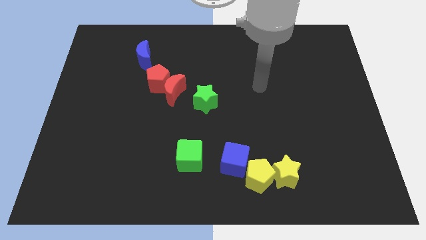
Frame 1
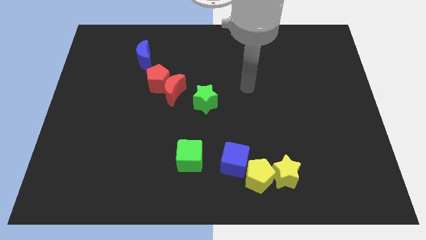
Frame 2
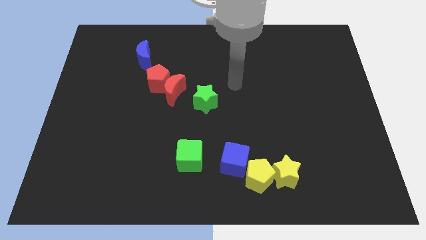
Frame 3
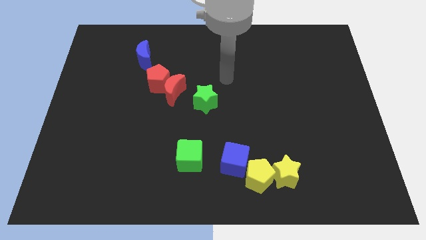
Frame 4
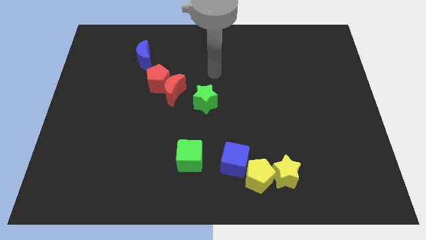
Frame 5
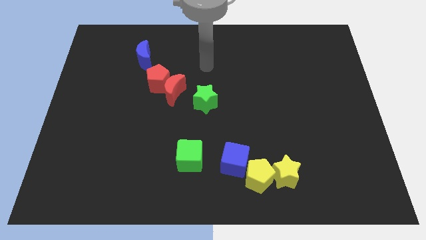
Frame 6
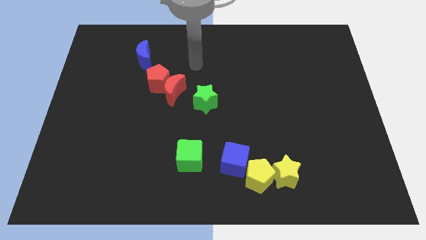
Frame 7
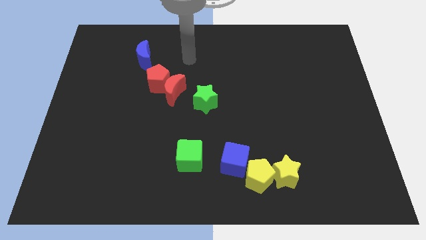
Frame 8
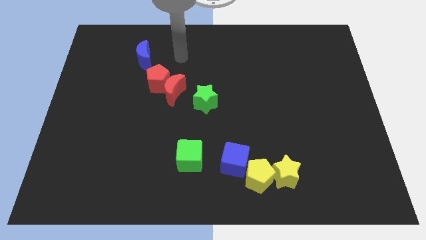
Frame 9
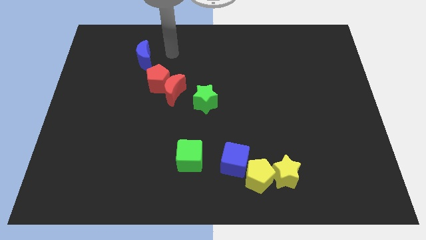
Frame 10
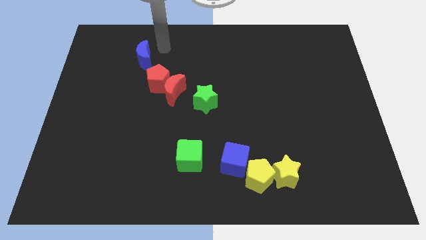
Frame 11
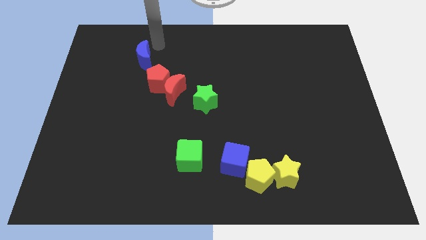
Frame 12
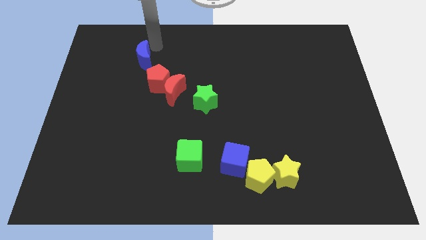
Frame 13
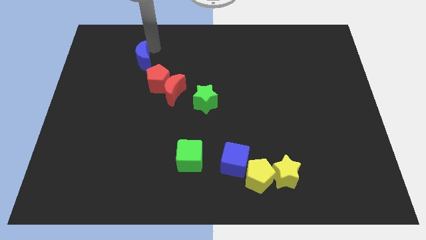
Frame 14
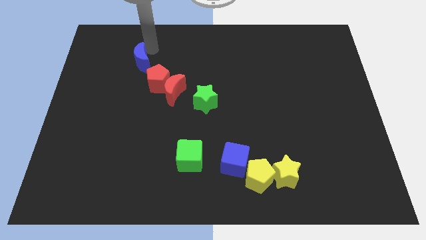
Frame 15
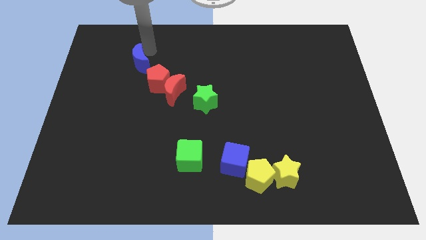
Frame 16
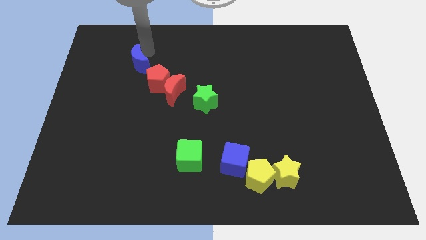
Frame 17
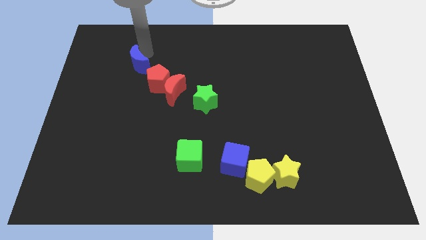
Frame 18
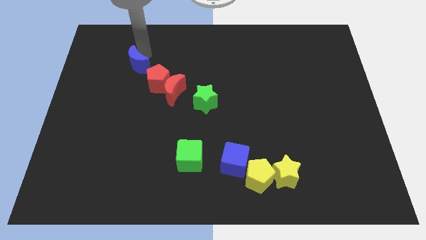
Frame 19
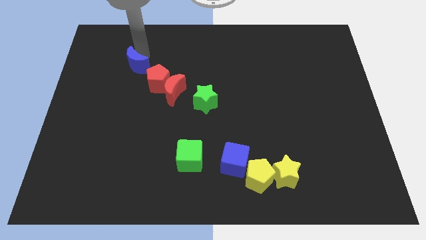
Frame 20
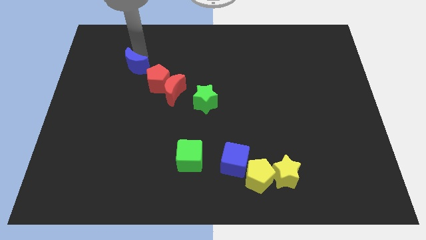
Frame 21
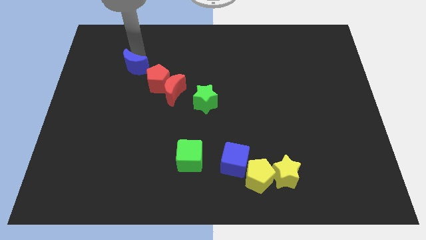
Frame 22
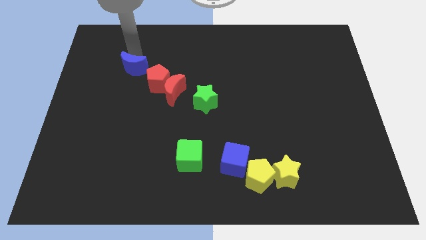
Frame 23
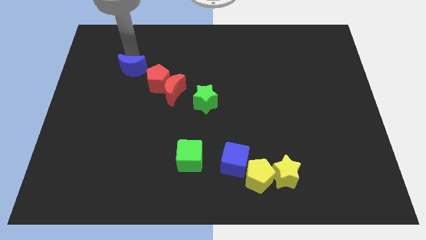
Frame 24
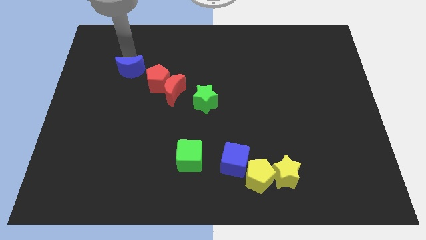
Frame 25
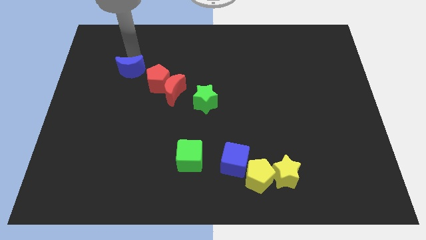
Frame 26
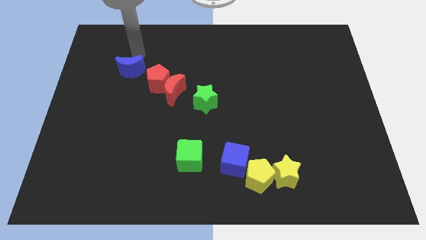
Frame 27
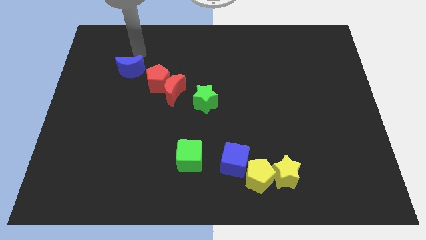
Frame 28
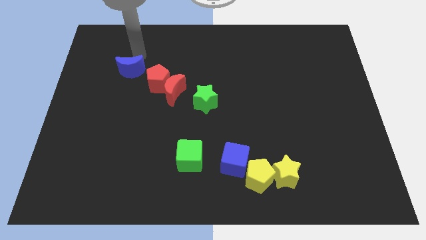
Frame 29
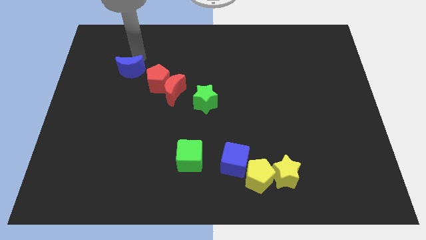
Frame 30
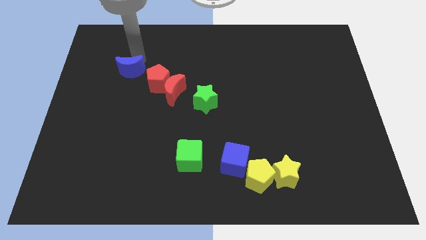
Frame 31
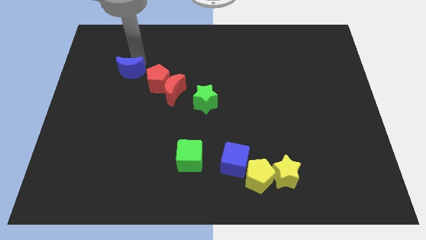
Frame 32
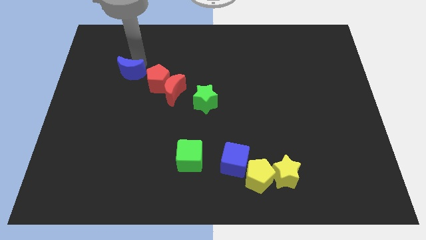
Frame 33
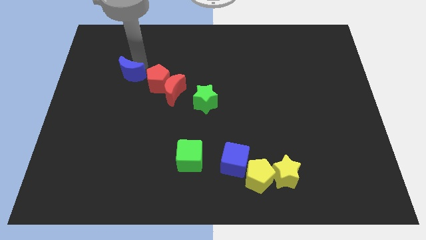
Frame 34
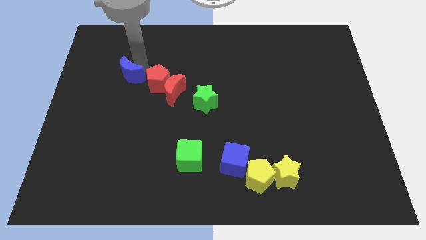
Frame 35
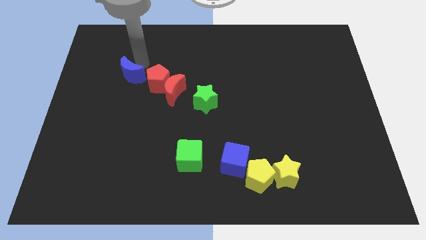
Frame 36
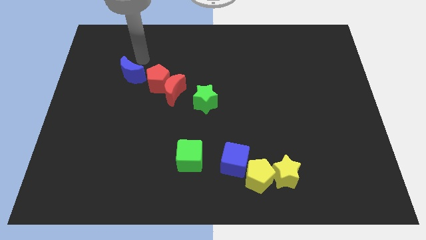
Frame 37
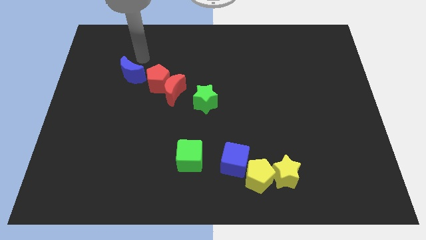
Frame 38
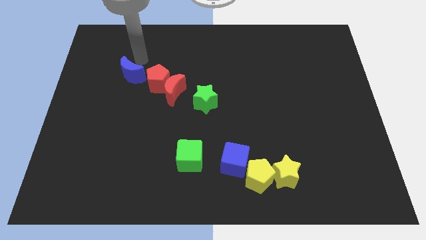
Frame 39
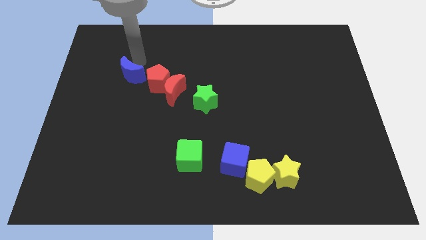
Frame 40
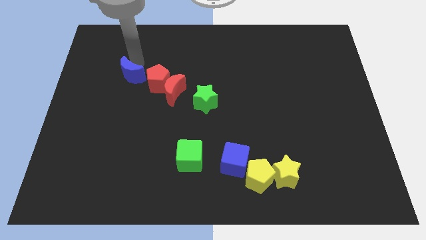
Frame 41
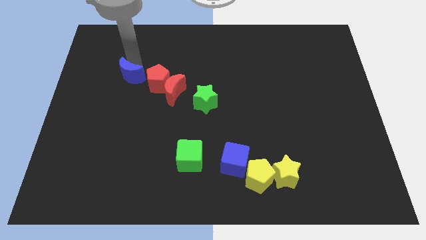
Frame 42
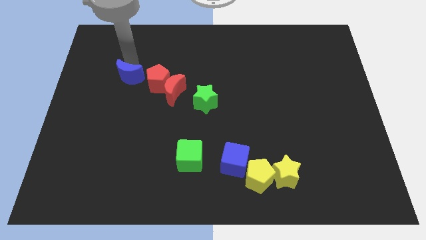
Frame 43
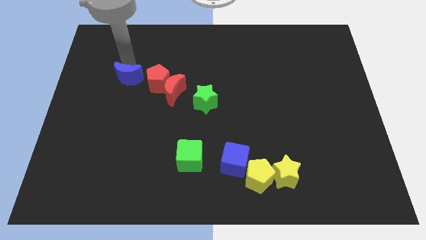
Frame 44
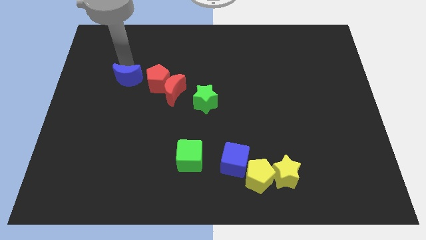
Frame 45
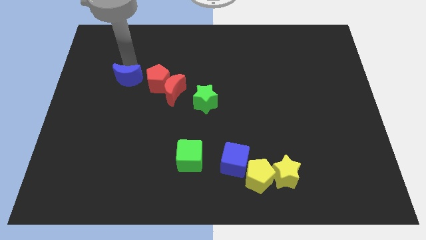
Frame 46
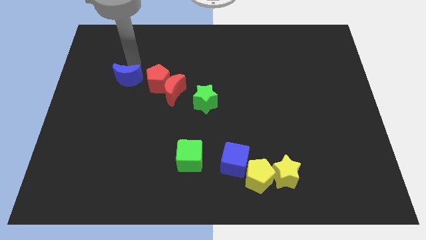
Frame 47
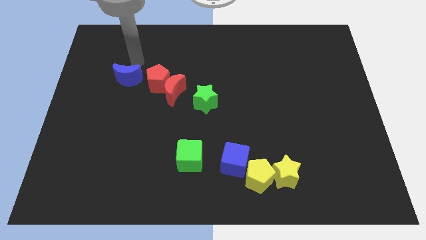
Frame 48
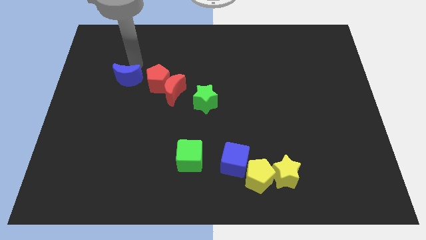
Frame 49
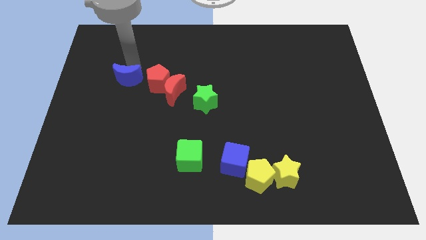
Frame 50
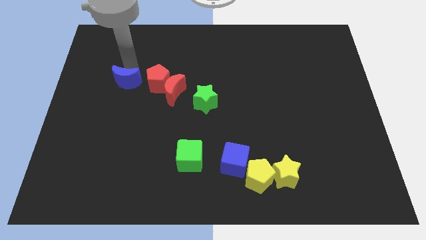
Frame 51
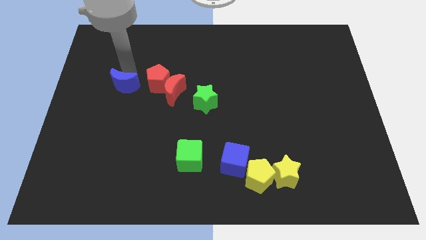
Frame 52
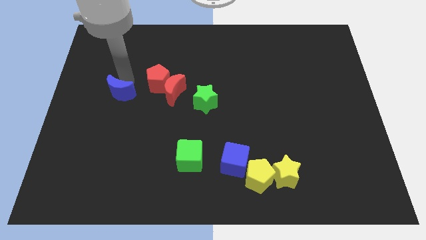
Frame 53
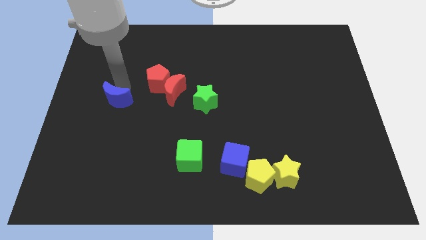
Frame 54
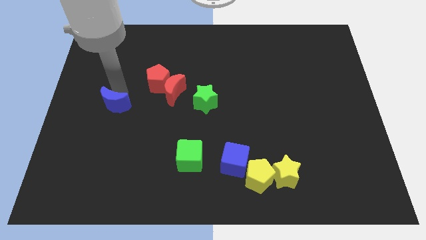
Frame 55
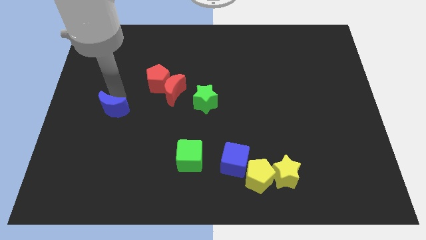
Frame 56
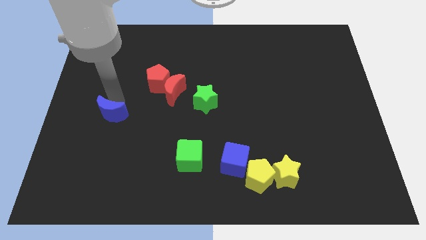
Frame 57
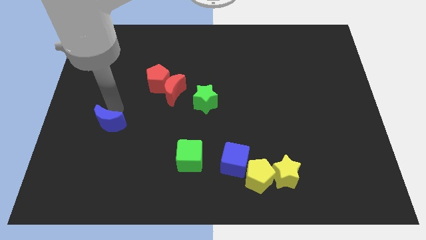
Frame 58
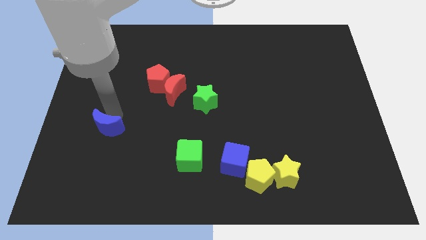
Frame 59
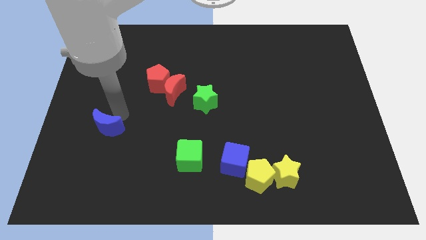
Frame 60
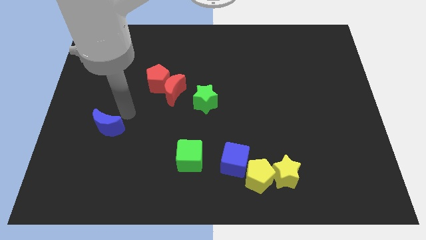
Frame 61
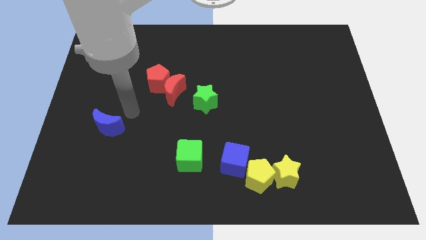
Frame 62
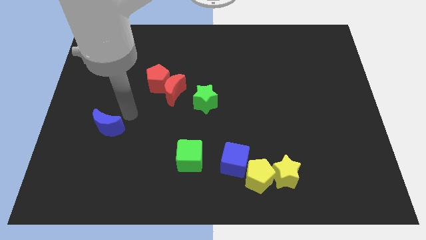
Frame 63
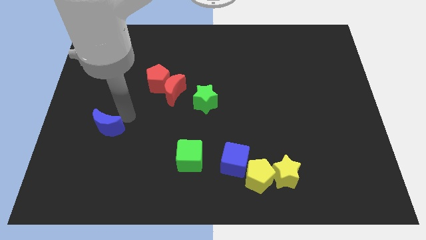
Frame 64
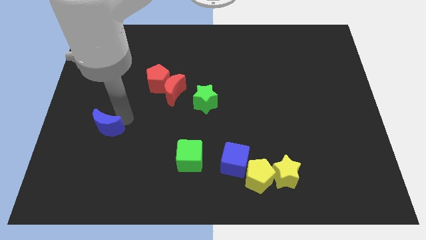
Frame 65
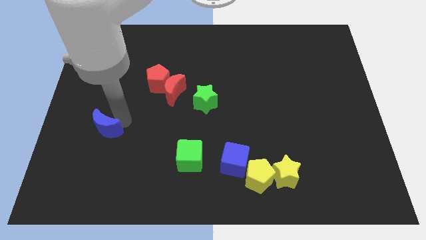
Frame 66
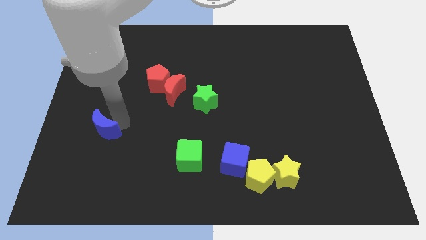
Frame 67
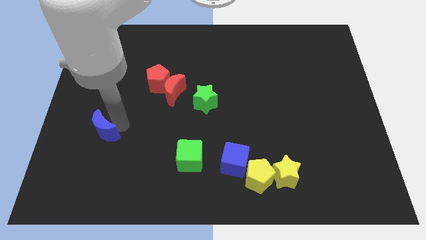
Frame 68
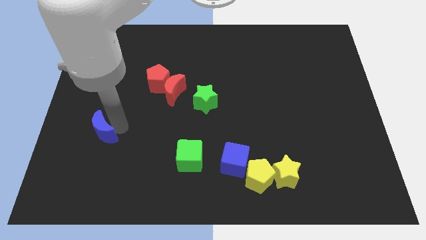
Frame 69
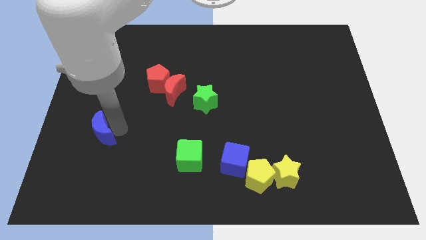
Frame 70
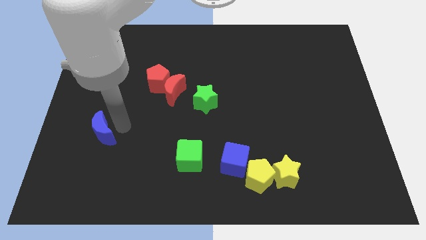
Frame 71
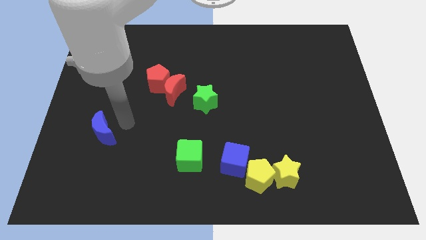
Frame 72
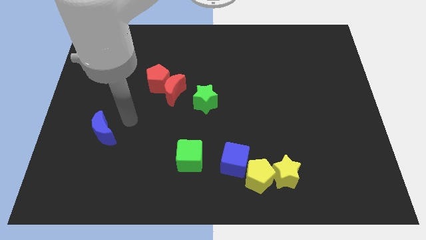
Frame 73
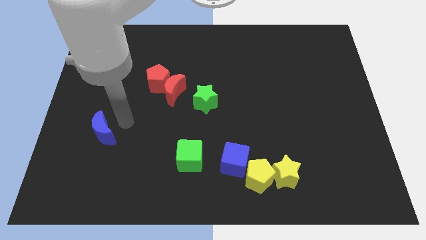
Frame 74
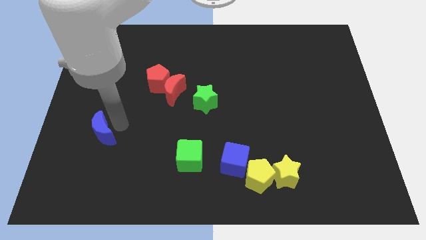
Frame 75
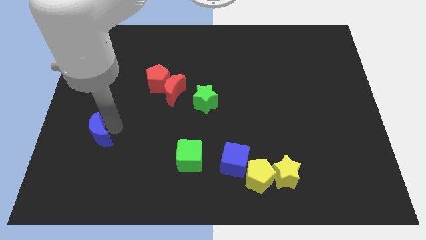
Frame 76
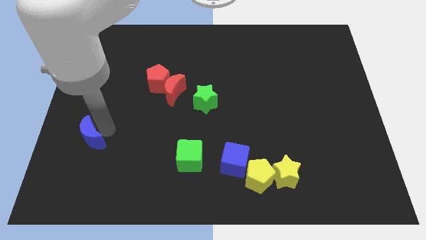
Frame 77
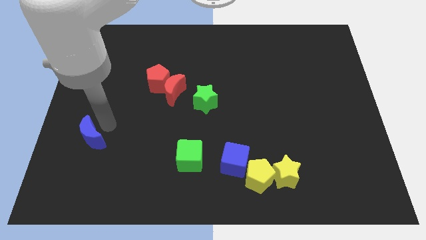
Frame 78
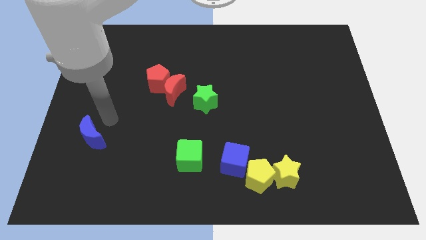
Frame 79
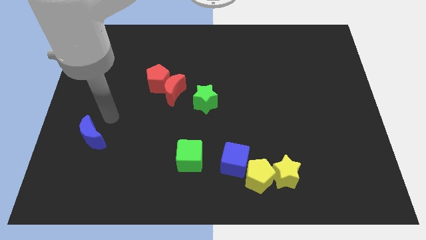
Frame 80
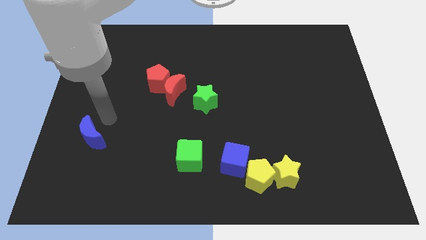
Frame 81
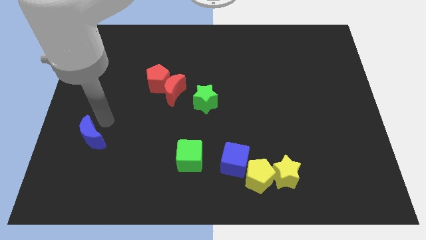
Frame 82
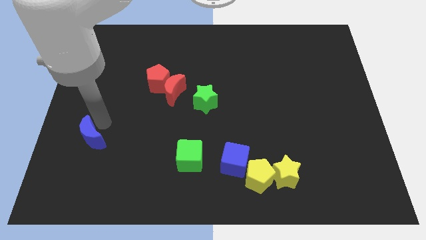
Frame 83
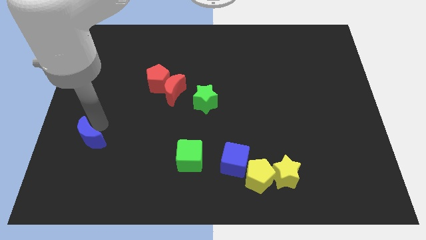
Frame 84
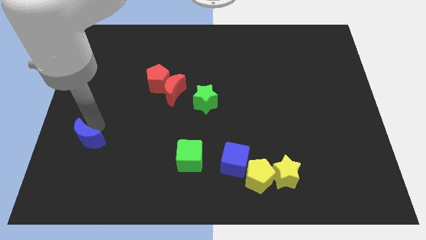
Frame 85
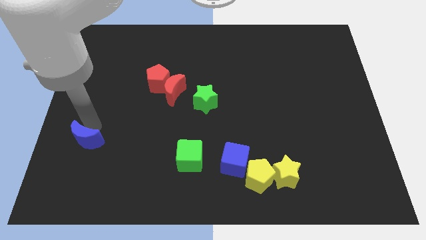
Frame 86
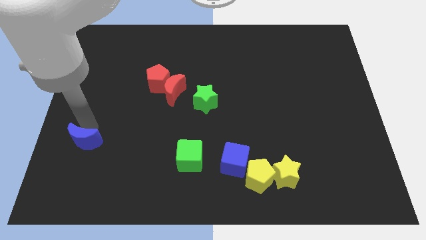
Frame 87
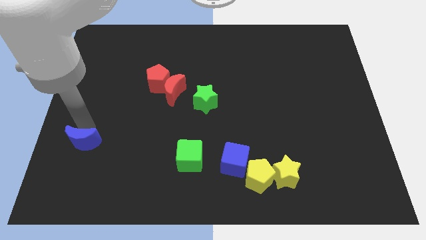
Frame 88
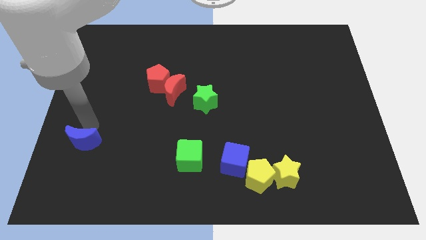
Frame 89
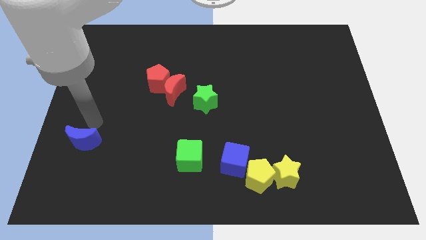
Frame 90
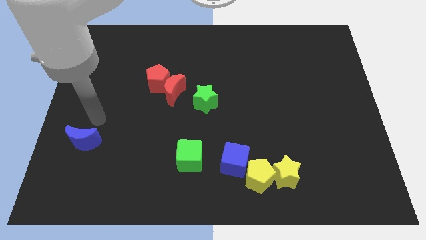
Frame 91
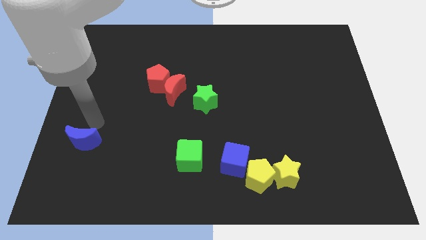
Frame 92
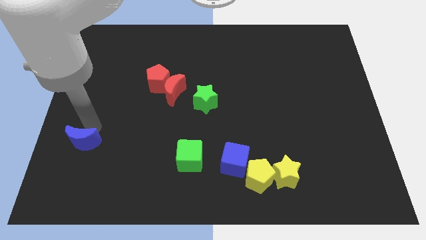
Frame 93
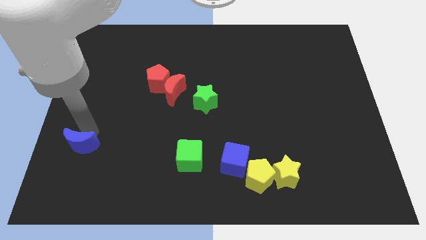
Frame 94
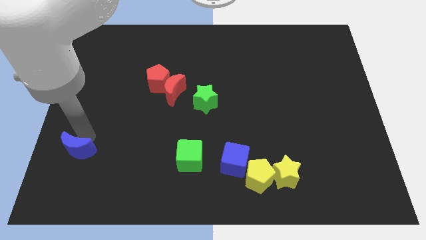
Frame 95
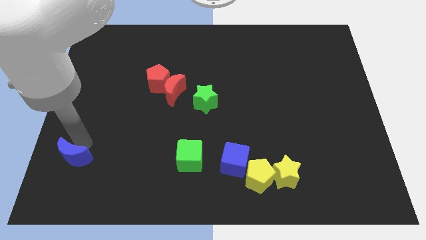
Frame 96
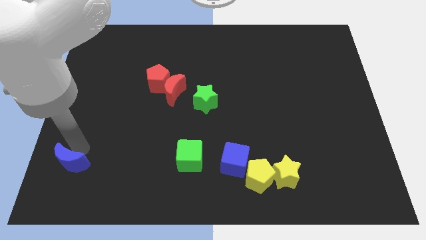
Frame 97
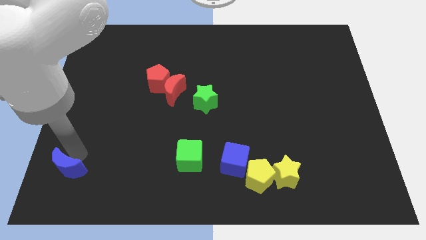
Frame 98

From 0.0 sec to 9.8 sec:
push the blue moon to the bottom left of the board
